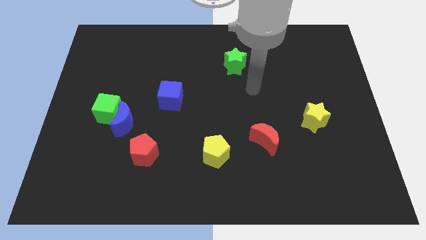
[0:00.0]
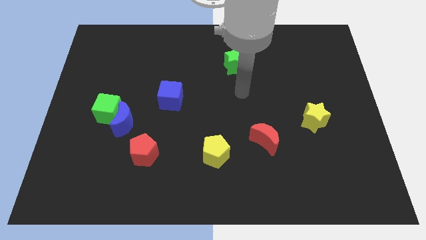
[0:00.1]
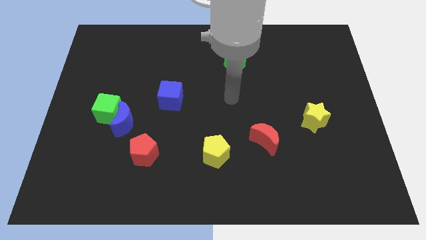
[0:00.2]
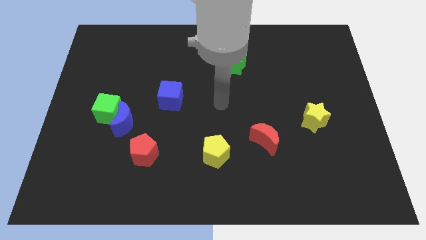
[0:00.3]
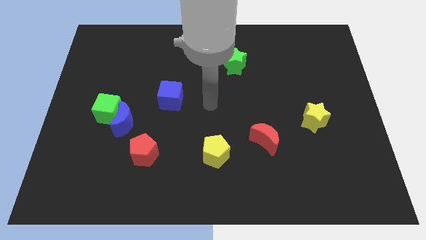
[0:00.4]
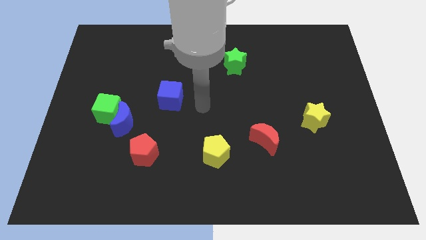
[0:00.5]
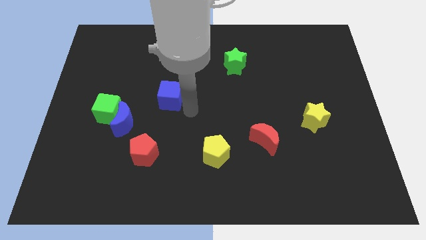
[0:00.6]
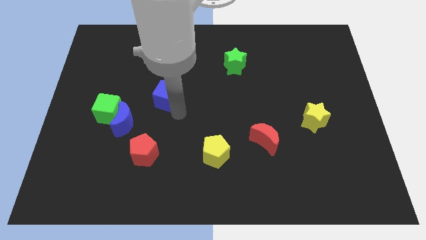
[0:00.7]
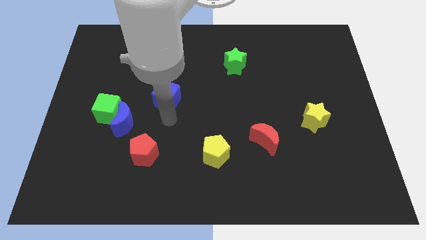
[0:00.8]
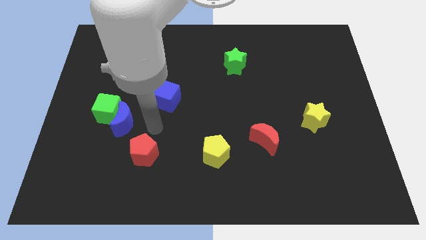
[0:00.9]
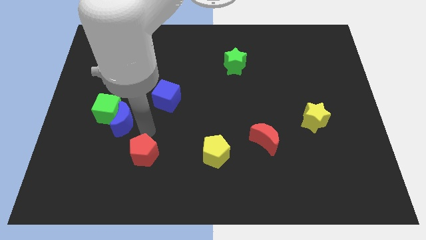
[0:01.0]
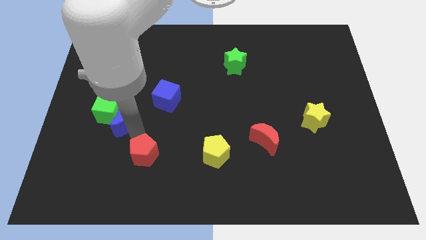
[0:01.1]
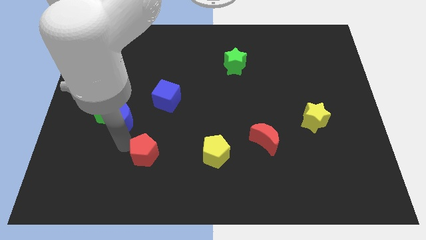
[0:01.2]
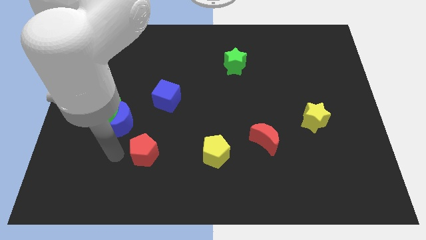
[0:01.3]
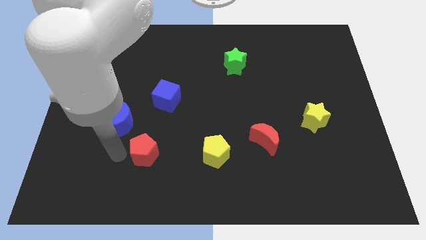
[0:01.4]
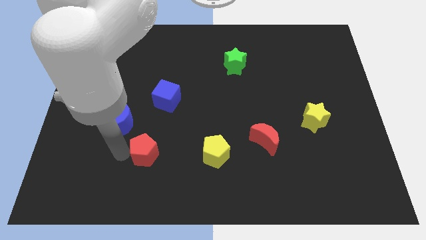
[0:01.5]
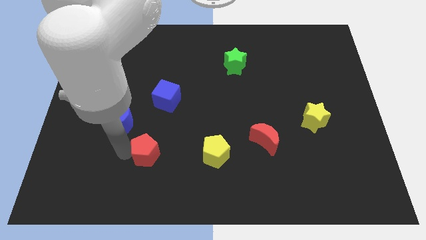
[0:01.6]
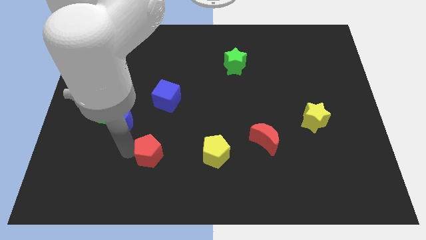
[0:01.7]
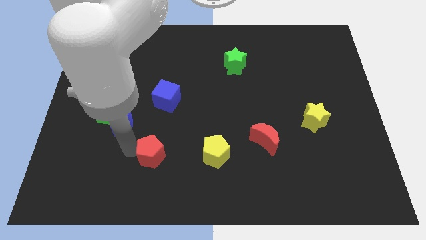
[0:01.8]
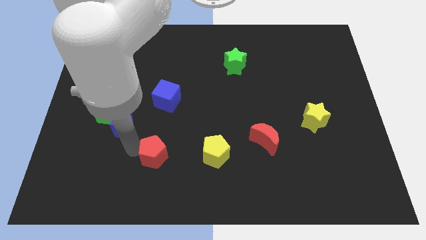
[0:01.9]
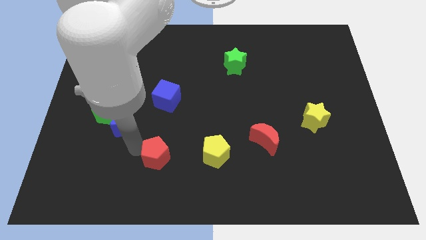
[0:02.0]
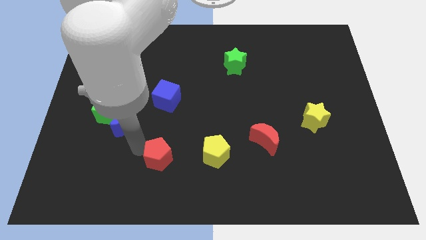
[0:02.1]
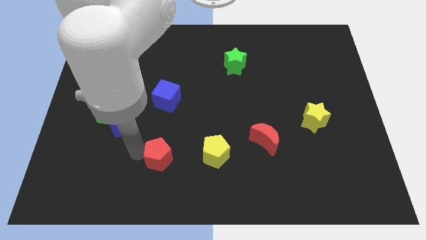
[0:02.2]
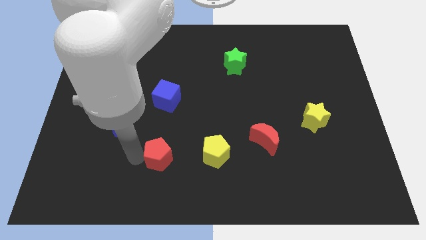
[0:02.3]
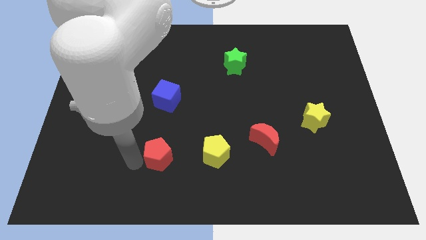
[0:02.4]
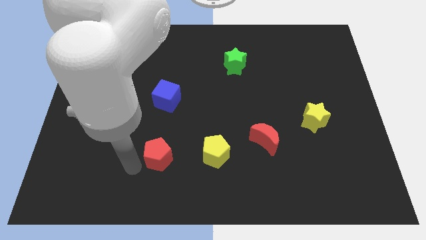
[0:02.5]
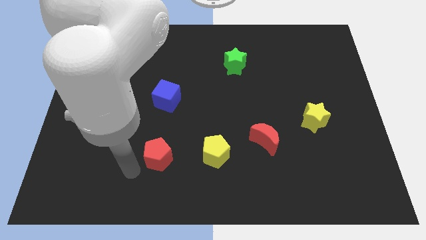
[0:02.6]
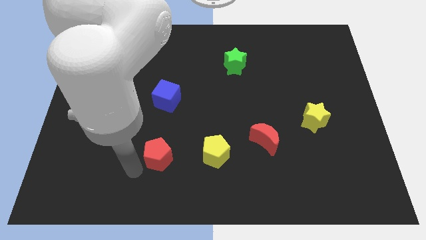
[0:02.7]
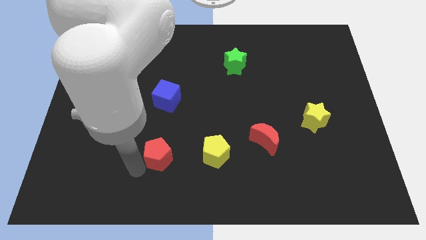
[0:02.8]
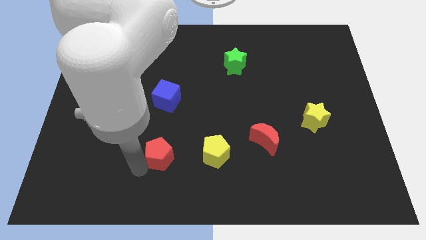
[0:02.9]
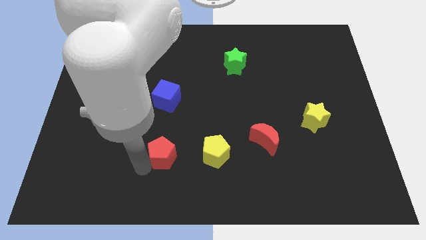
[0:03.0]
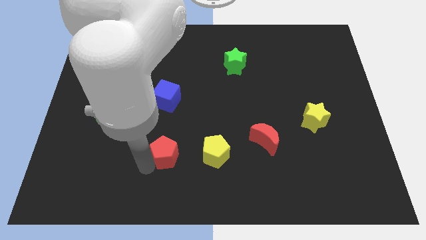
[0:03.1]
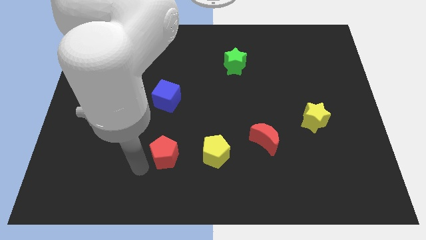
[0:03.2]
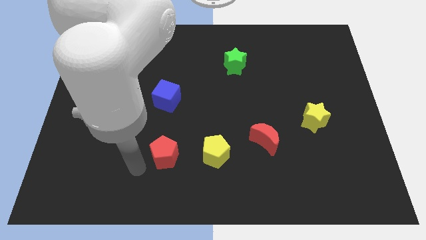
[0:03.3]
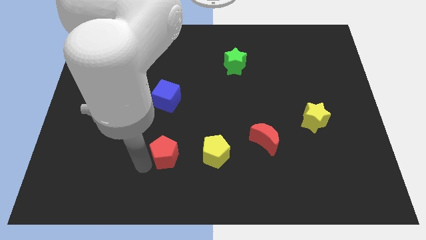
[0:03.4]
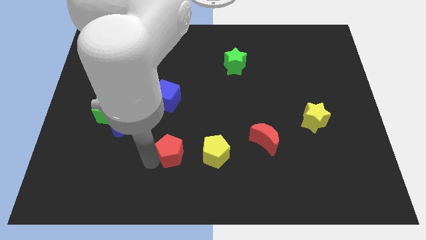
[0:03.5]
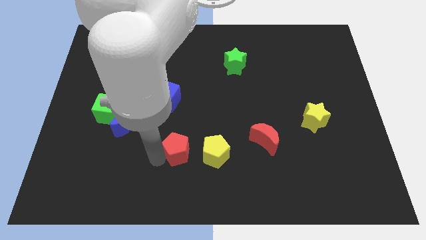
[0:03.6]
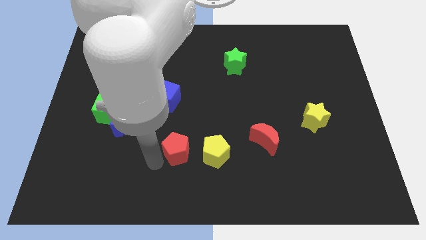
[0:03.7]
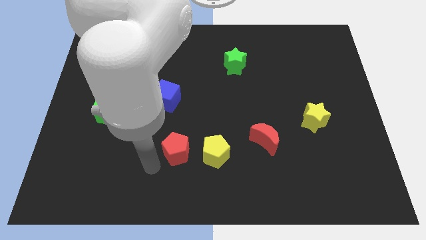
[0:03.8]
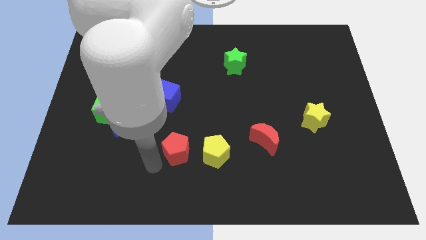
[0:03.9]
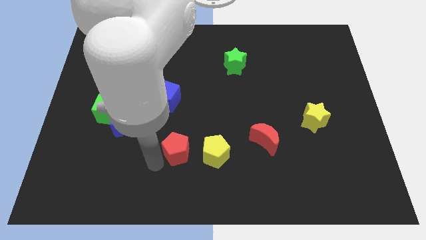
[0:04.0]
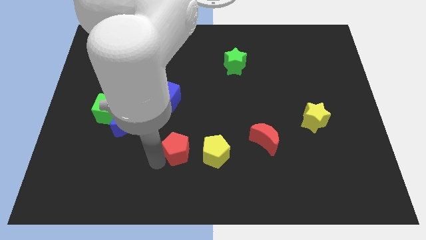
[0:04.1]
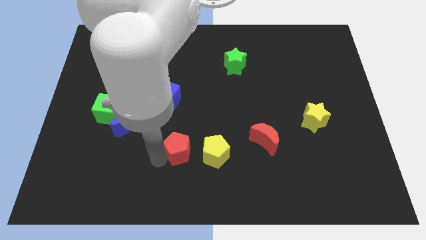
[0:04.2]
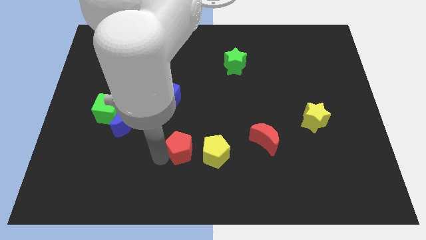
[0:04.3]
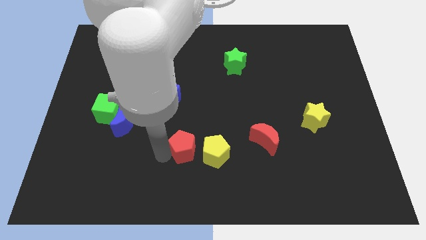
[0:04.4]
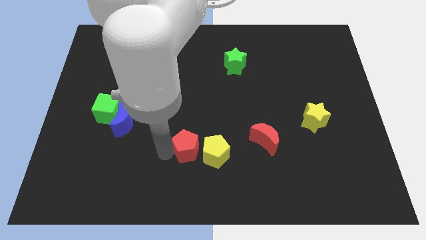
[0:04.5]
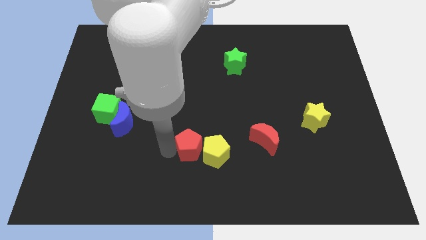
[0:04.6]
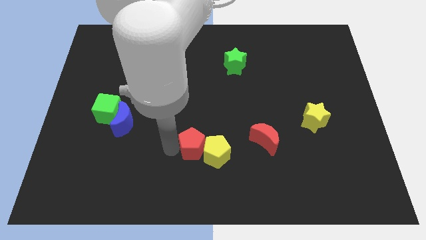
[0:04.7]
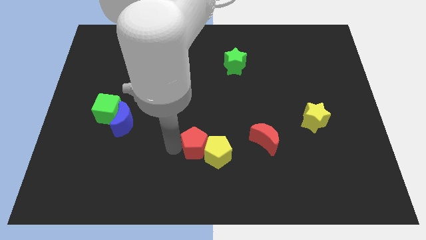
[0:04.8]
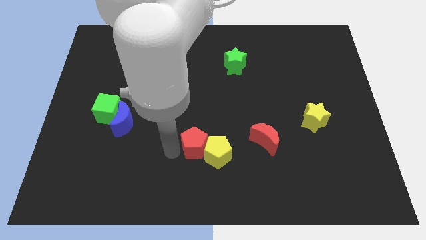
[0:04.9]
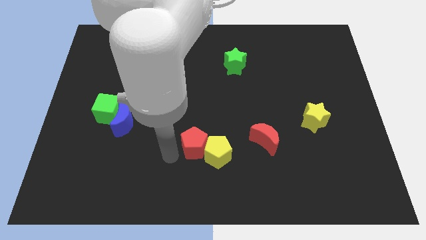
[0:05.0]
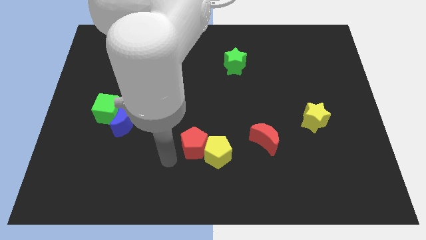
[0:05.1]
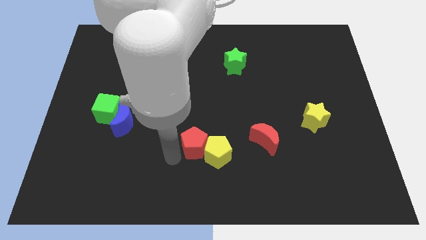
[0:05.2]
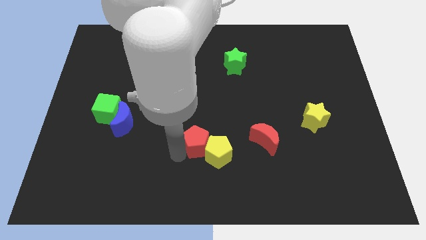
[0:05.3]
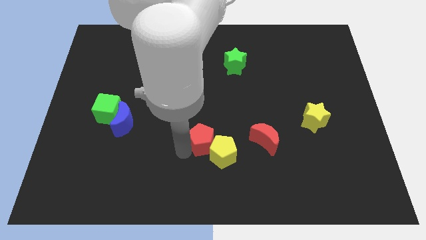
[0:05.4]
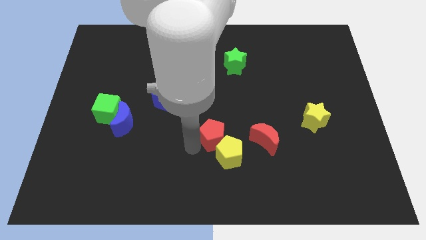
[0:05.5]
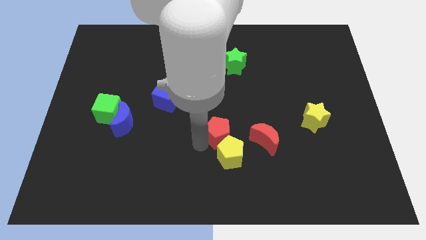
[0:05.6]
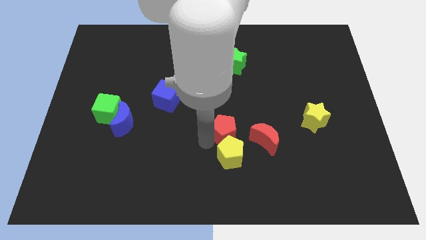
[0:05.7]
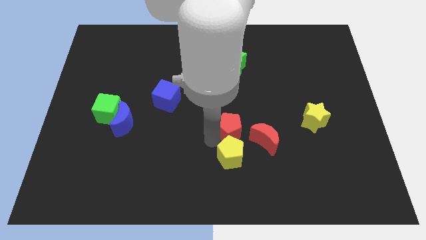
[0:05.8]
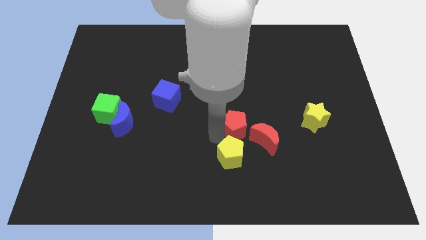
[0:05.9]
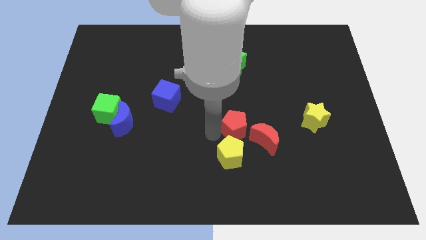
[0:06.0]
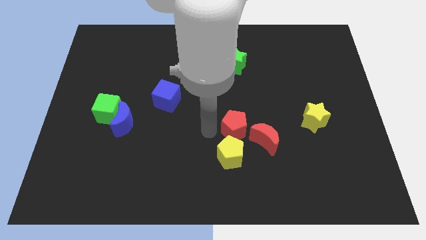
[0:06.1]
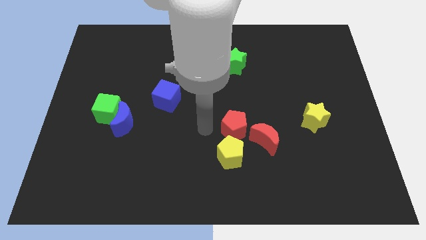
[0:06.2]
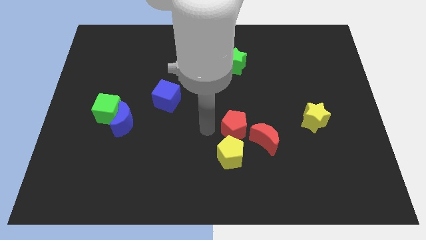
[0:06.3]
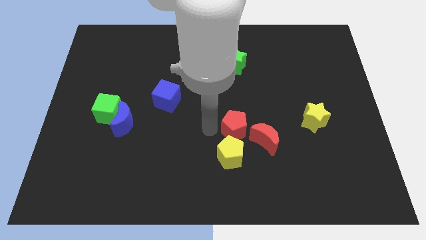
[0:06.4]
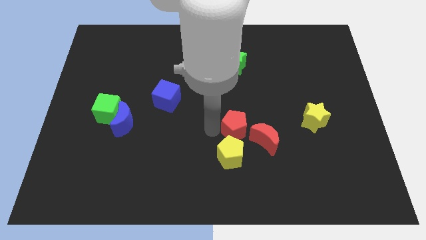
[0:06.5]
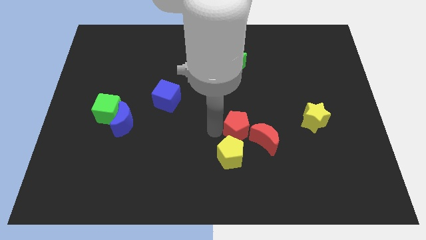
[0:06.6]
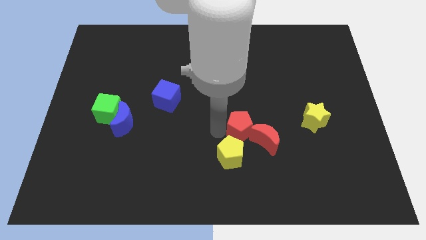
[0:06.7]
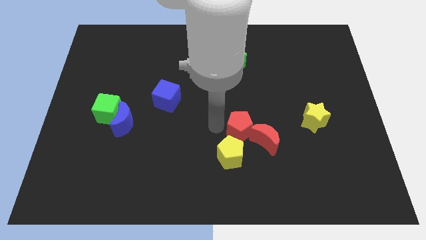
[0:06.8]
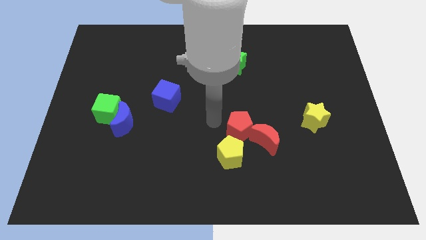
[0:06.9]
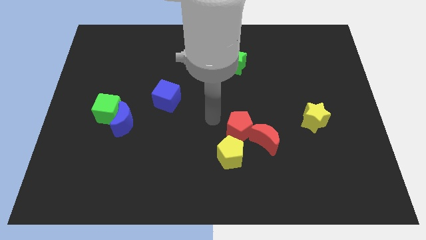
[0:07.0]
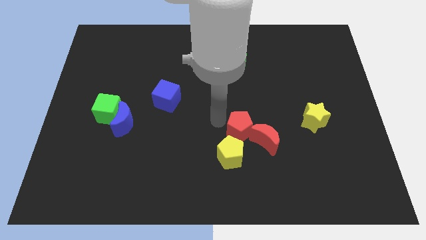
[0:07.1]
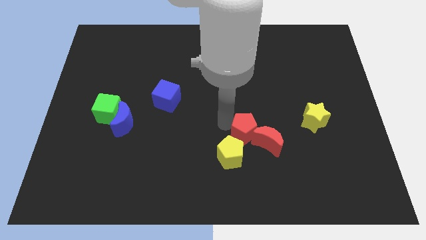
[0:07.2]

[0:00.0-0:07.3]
slide the red pentagon towards the red moon
